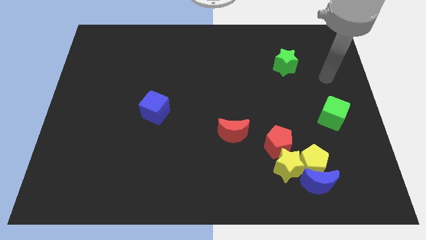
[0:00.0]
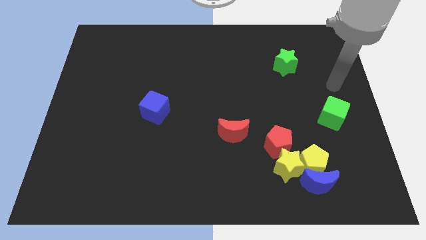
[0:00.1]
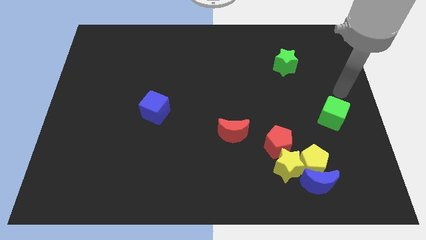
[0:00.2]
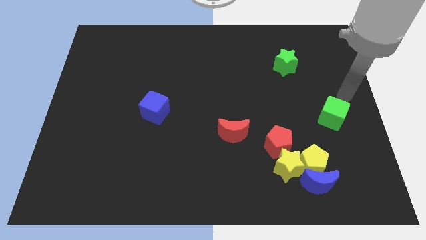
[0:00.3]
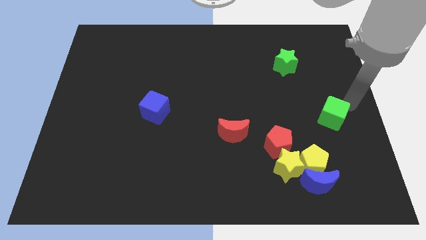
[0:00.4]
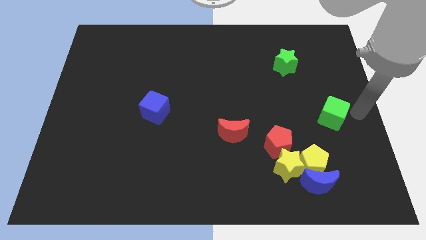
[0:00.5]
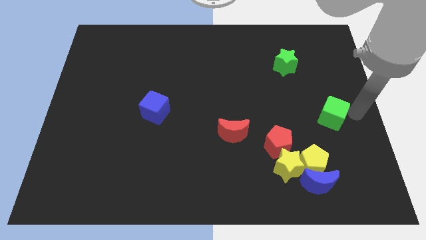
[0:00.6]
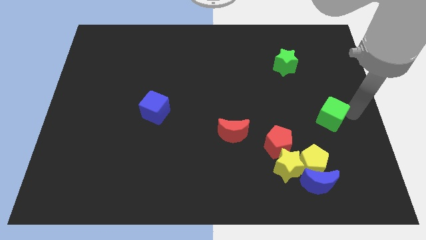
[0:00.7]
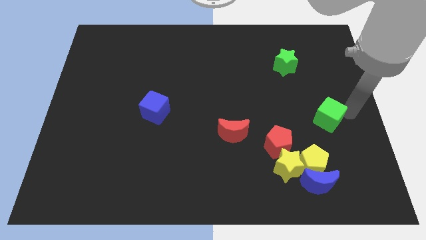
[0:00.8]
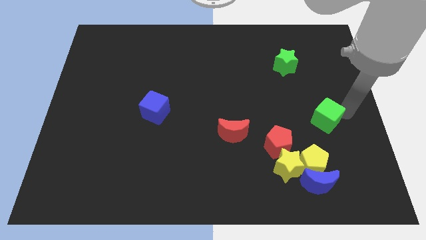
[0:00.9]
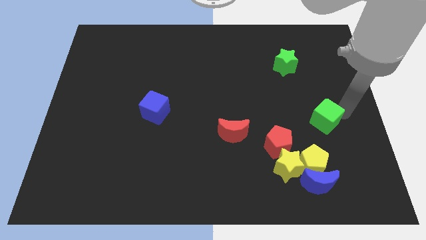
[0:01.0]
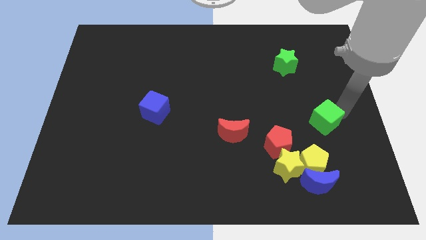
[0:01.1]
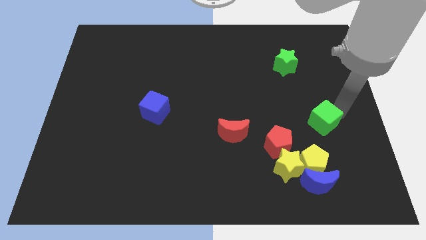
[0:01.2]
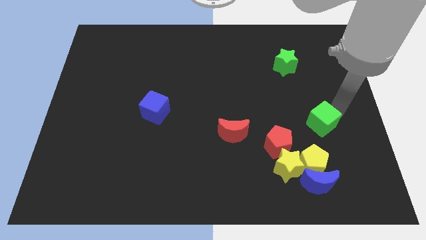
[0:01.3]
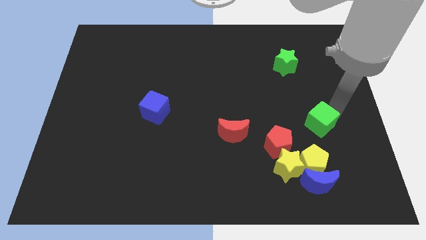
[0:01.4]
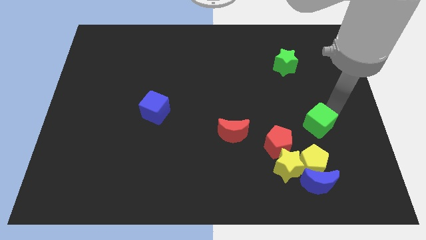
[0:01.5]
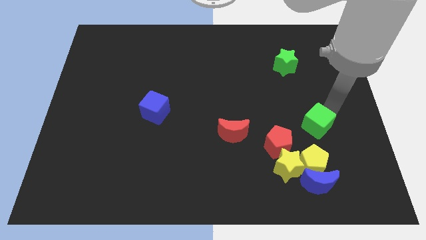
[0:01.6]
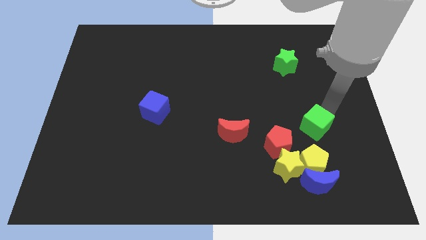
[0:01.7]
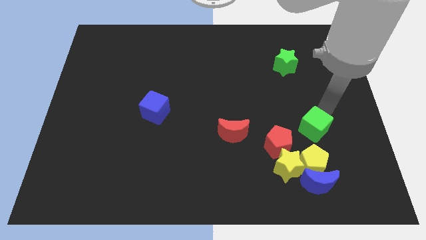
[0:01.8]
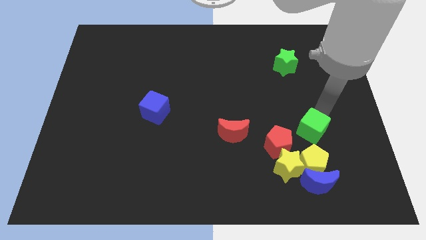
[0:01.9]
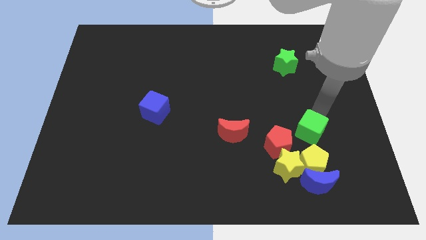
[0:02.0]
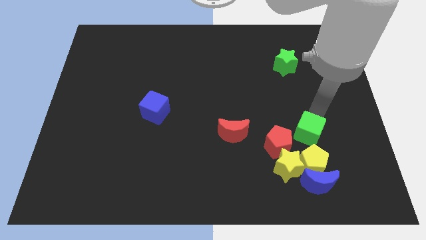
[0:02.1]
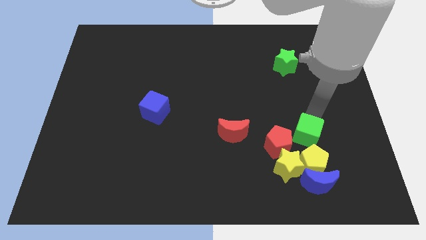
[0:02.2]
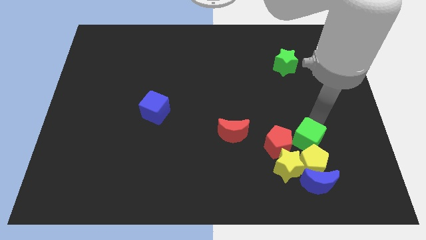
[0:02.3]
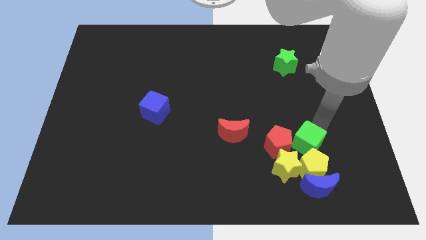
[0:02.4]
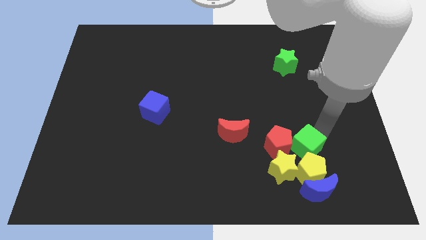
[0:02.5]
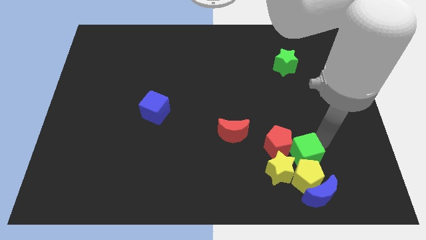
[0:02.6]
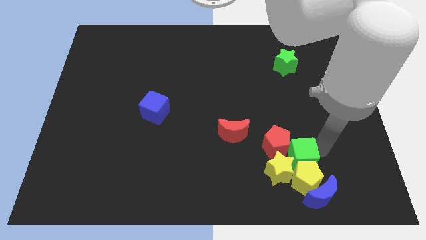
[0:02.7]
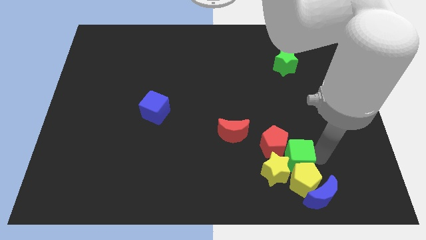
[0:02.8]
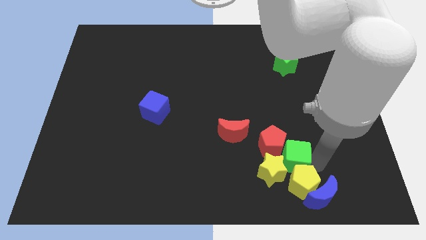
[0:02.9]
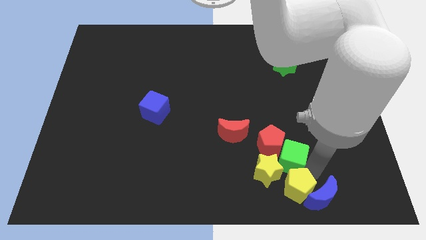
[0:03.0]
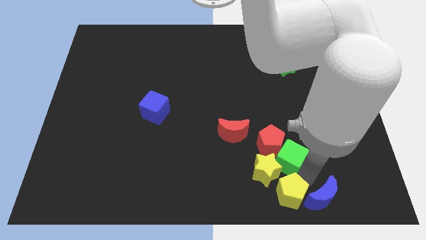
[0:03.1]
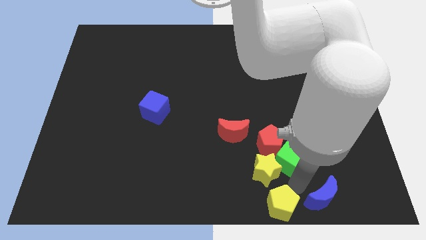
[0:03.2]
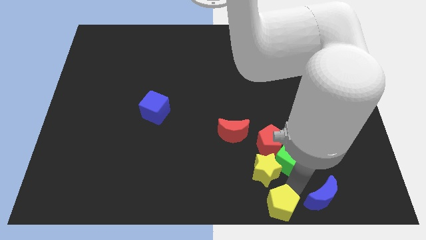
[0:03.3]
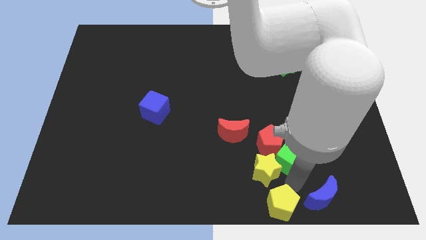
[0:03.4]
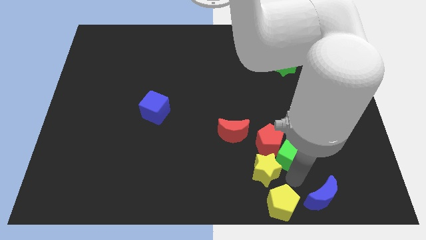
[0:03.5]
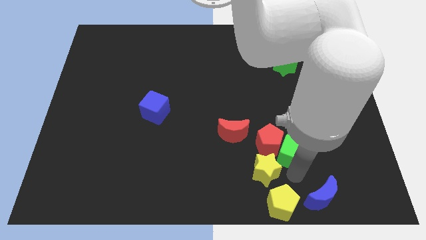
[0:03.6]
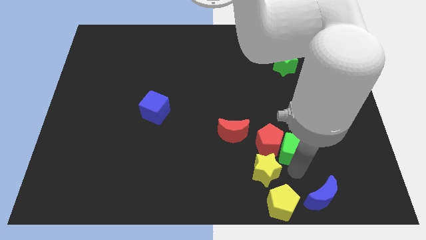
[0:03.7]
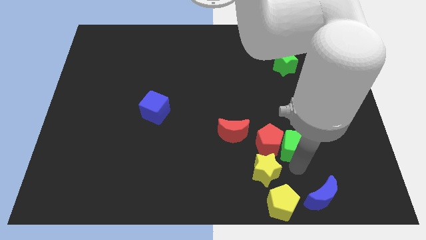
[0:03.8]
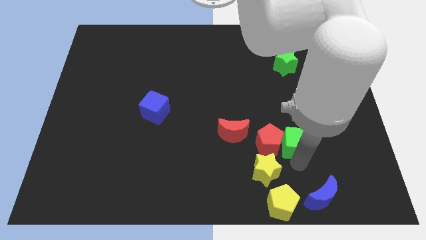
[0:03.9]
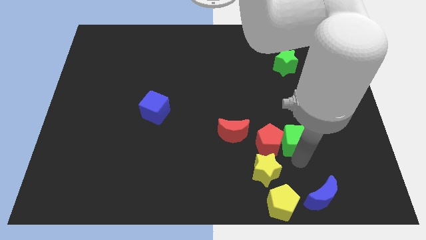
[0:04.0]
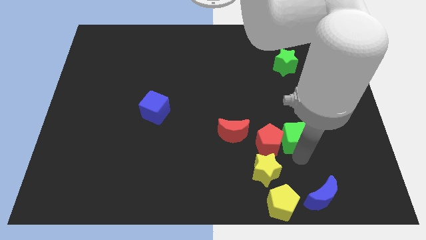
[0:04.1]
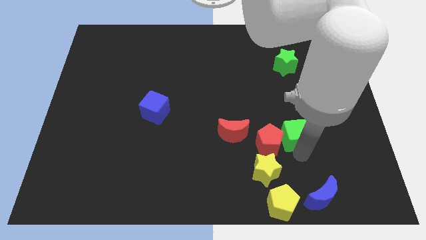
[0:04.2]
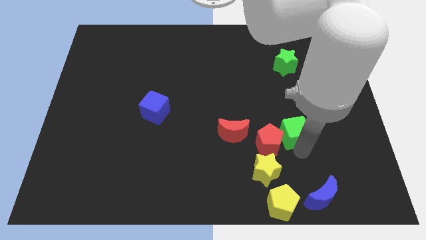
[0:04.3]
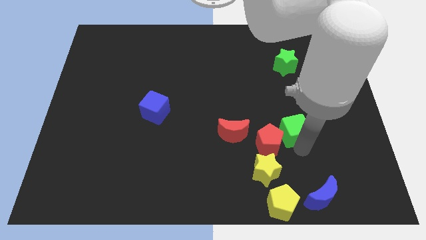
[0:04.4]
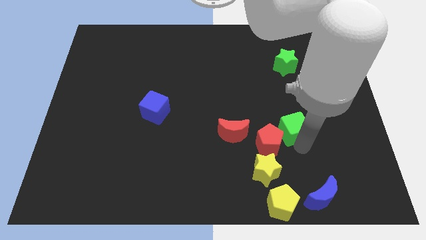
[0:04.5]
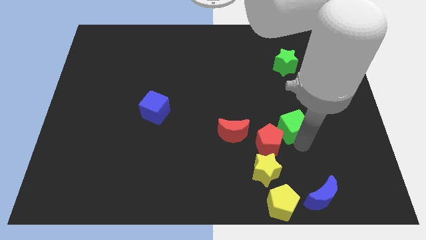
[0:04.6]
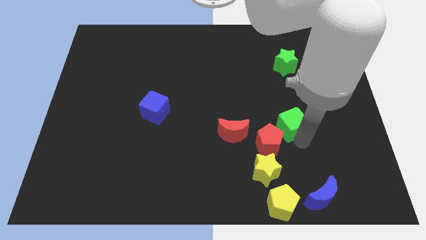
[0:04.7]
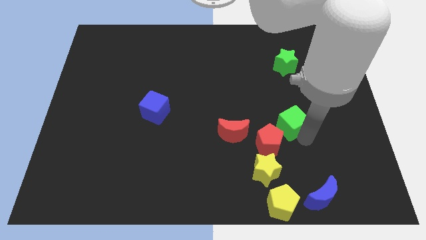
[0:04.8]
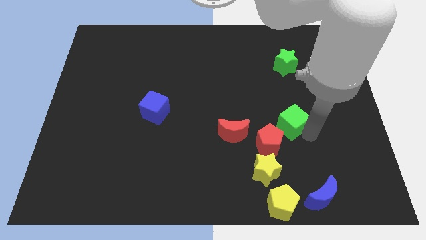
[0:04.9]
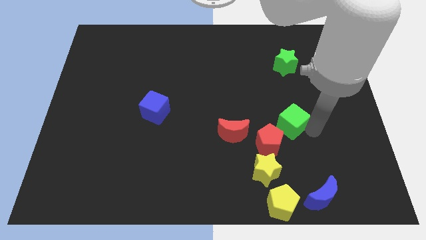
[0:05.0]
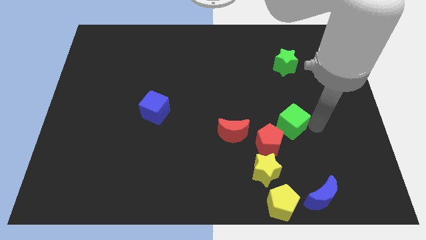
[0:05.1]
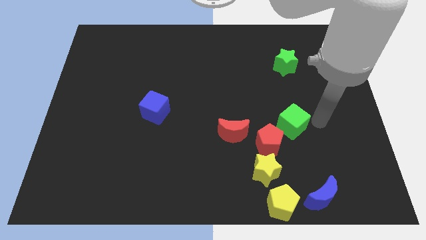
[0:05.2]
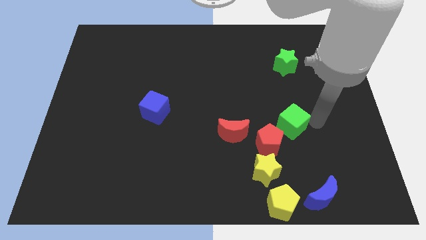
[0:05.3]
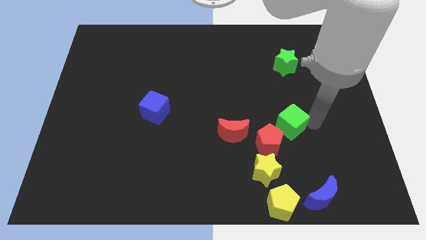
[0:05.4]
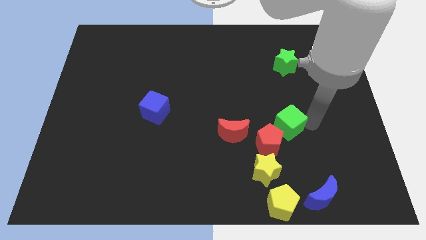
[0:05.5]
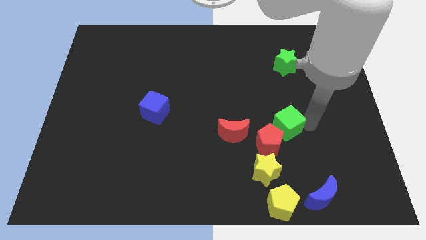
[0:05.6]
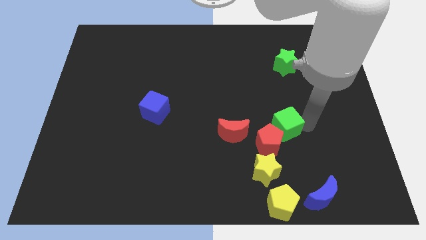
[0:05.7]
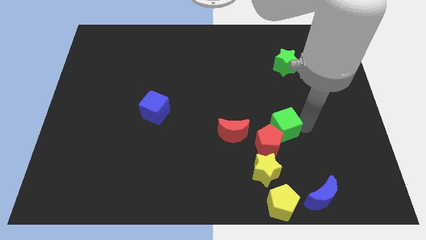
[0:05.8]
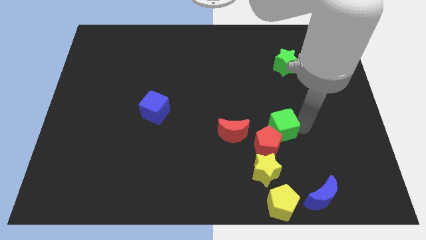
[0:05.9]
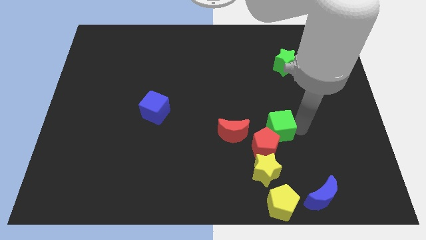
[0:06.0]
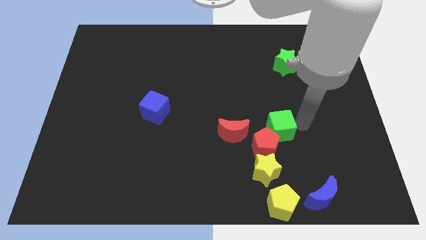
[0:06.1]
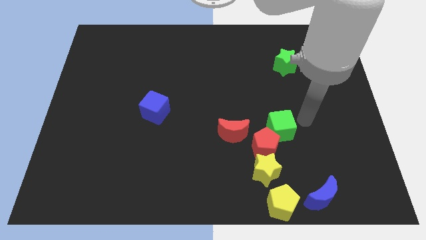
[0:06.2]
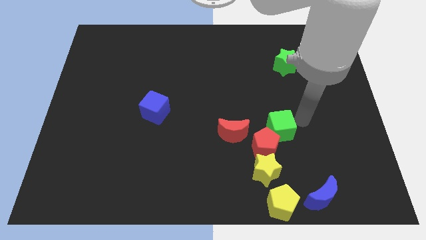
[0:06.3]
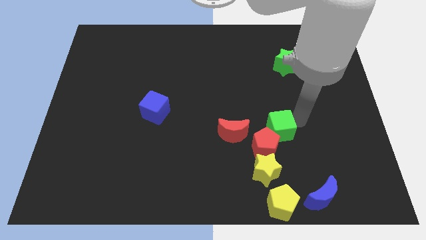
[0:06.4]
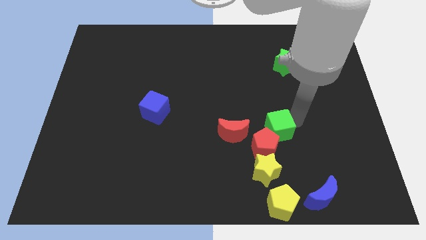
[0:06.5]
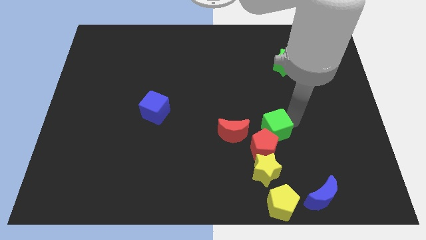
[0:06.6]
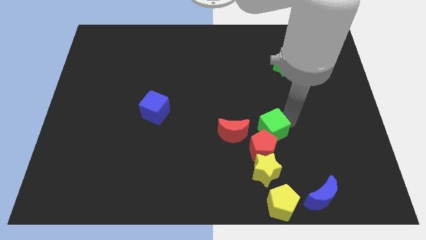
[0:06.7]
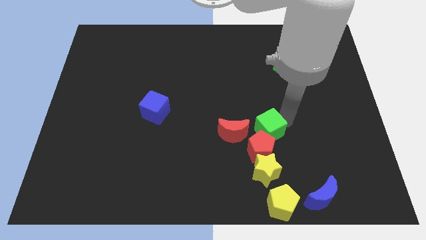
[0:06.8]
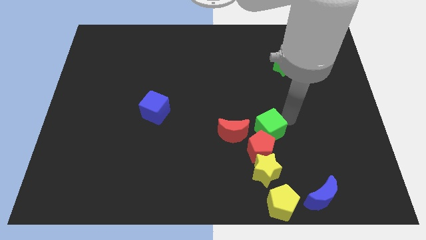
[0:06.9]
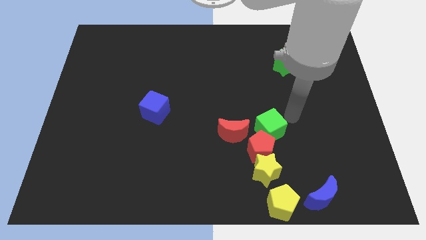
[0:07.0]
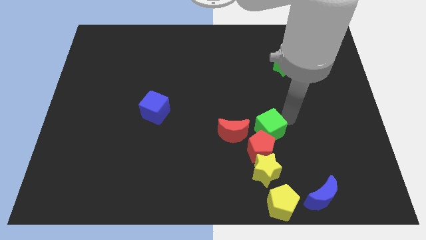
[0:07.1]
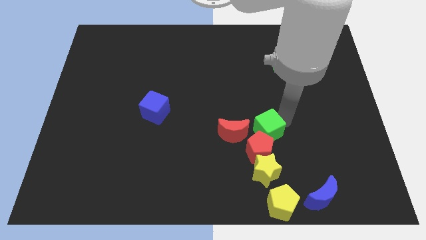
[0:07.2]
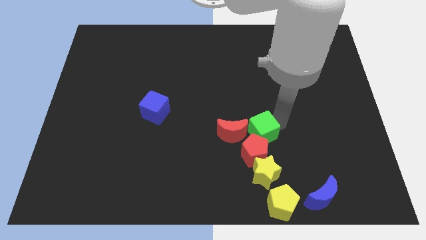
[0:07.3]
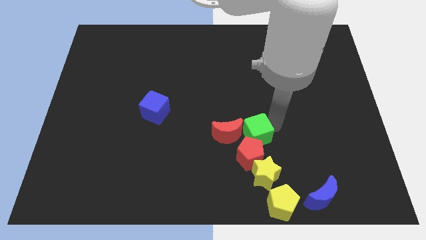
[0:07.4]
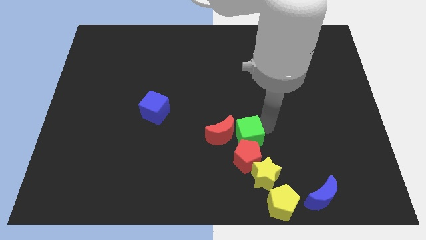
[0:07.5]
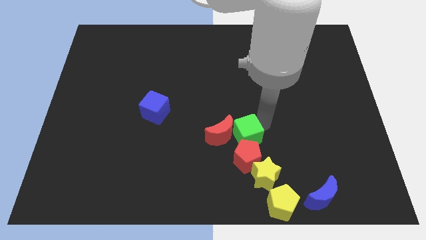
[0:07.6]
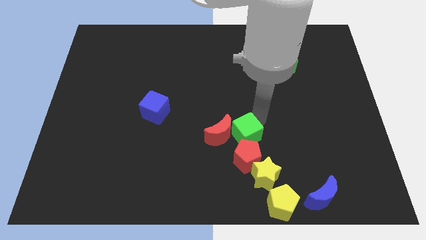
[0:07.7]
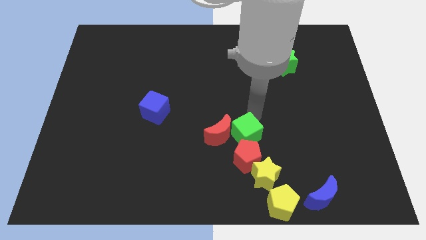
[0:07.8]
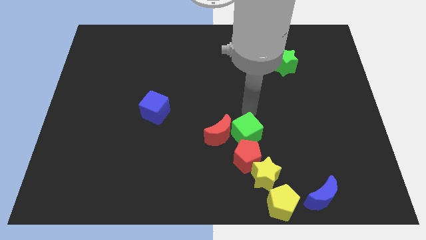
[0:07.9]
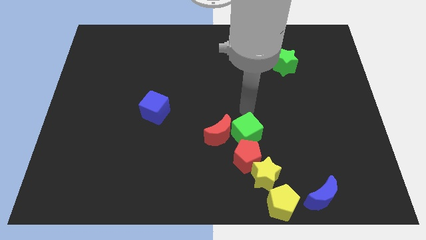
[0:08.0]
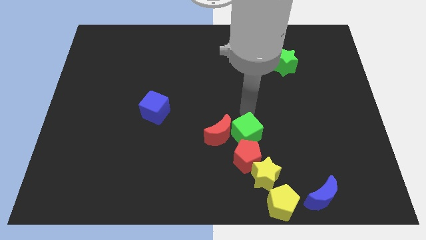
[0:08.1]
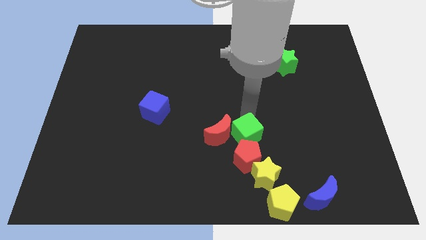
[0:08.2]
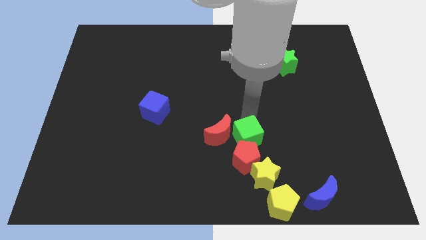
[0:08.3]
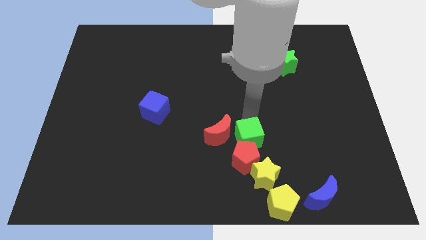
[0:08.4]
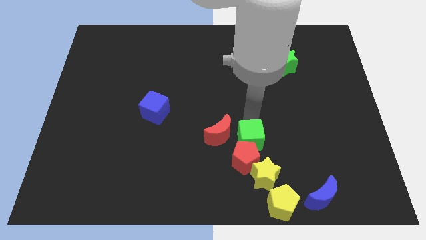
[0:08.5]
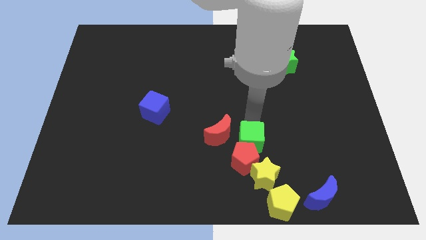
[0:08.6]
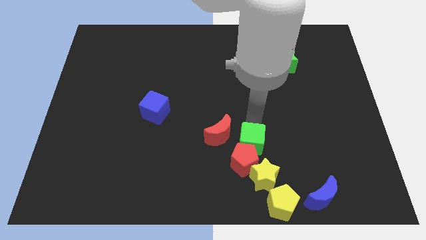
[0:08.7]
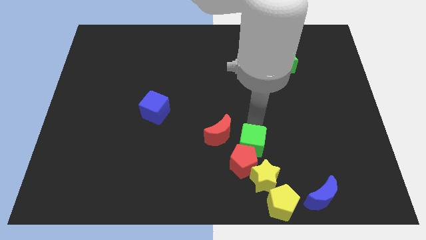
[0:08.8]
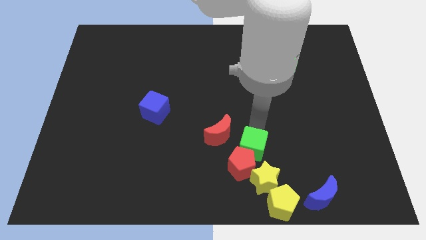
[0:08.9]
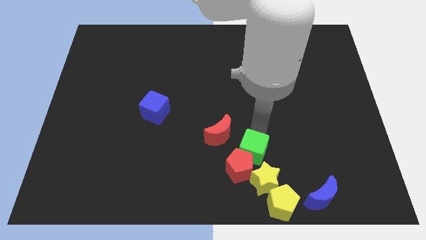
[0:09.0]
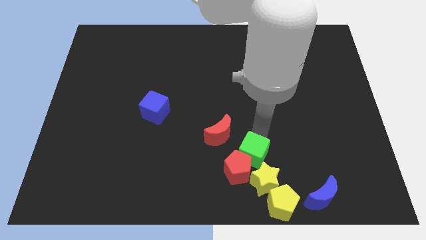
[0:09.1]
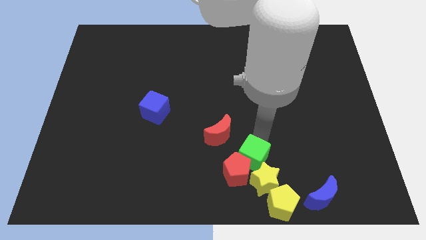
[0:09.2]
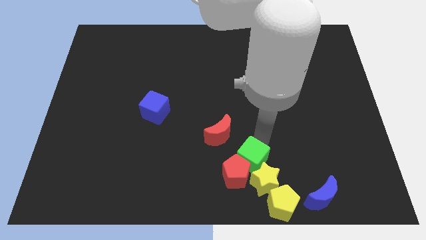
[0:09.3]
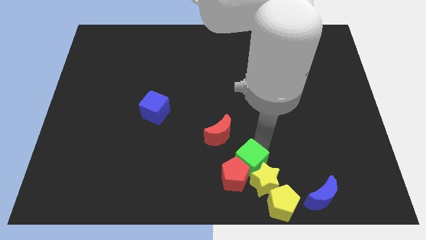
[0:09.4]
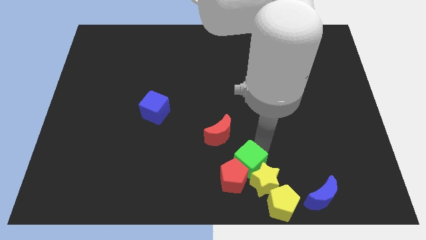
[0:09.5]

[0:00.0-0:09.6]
slide the green cube to the bottom side
